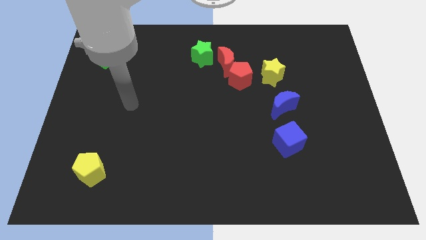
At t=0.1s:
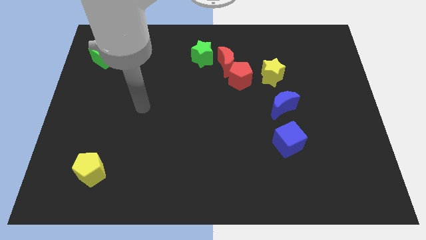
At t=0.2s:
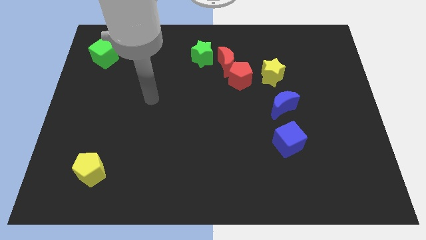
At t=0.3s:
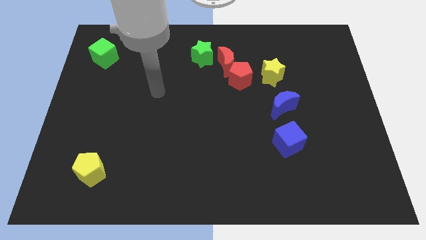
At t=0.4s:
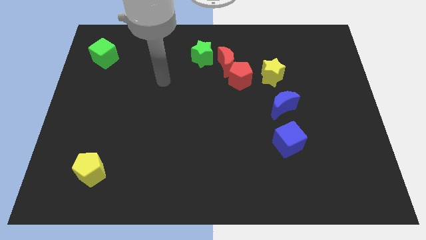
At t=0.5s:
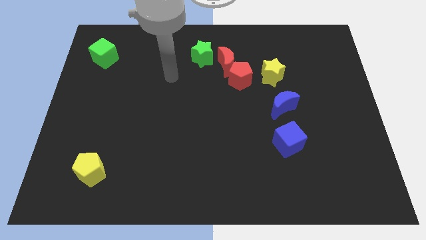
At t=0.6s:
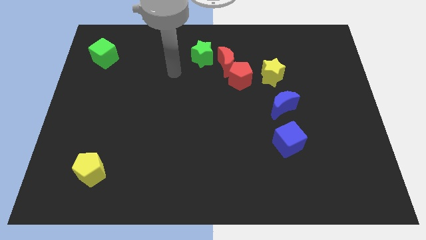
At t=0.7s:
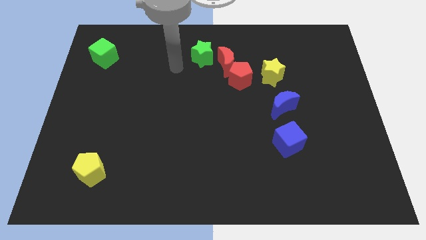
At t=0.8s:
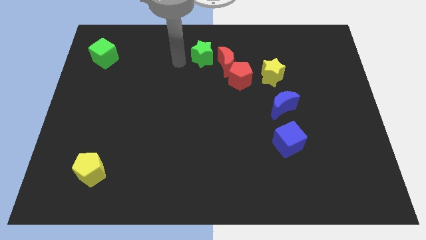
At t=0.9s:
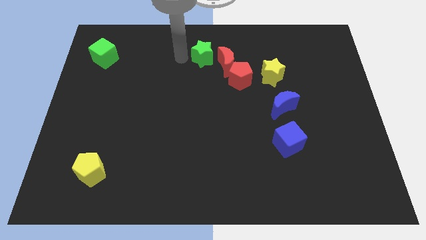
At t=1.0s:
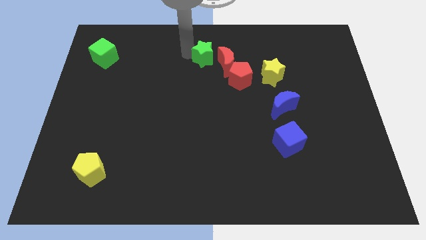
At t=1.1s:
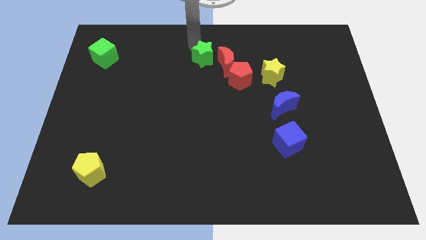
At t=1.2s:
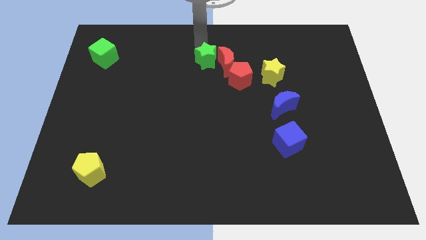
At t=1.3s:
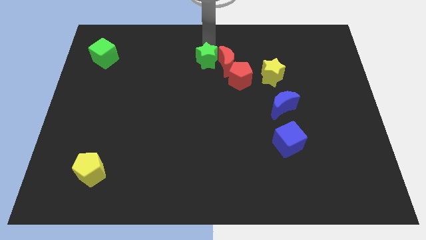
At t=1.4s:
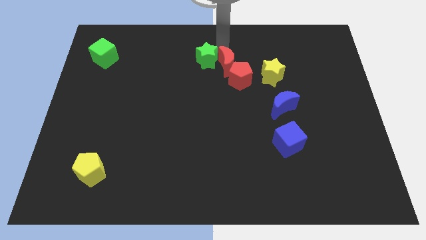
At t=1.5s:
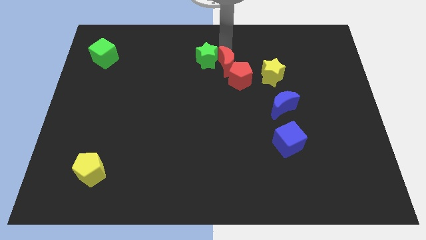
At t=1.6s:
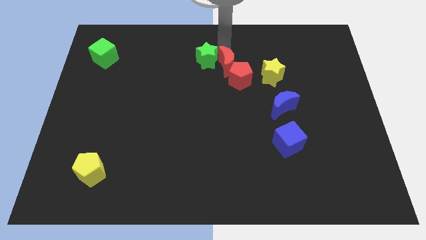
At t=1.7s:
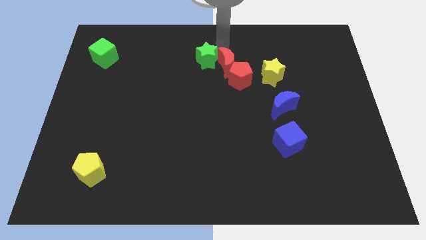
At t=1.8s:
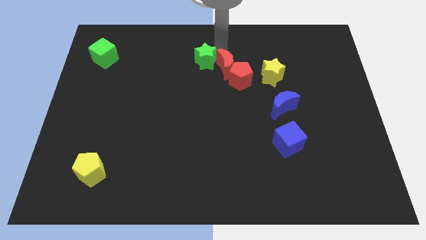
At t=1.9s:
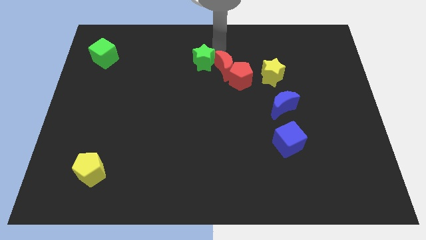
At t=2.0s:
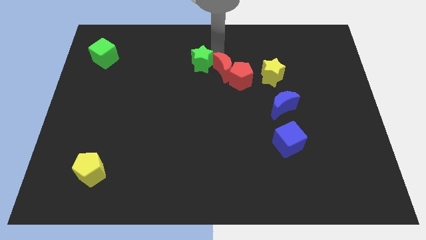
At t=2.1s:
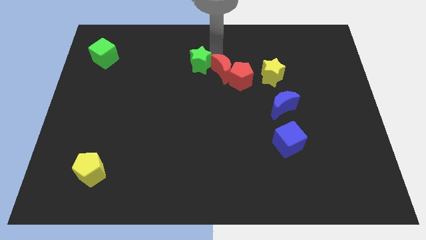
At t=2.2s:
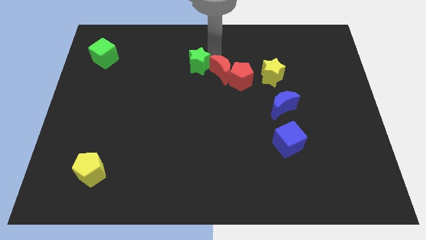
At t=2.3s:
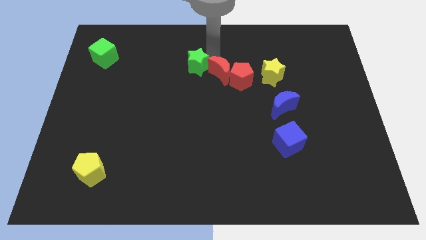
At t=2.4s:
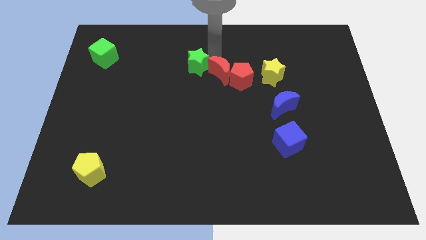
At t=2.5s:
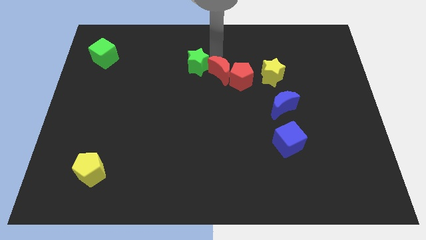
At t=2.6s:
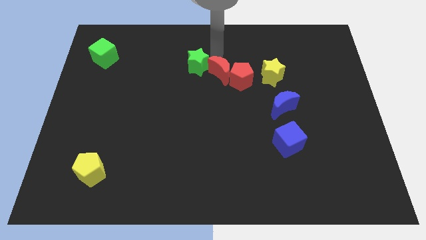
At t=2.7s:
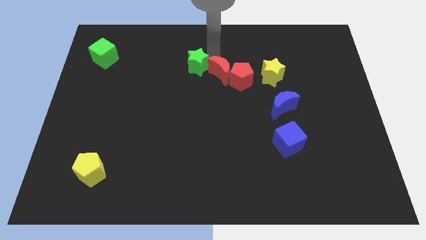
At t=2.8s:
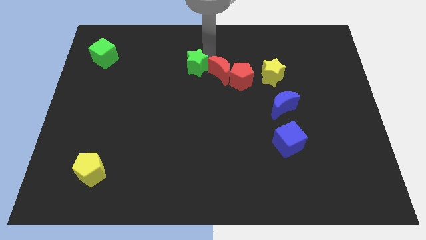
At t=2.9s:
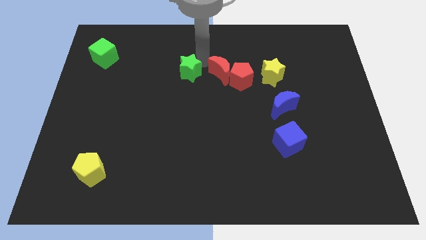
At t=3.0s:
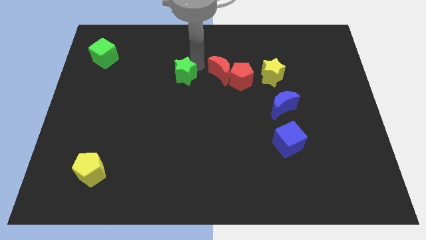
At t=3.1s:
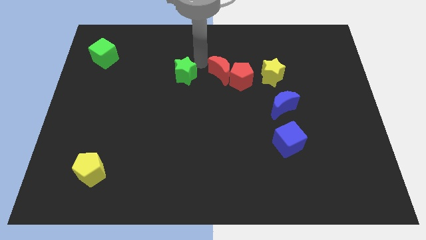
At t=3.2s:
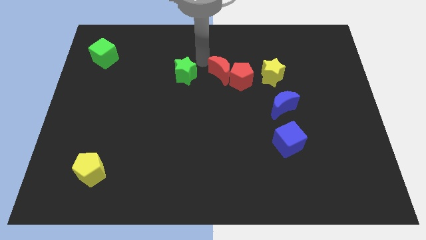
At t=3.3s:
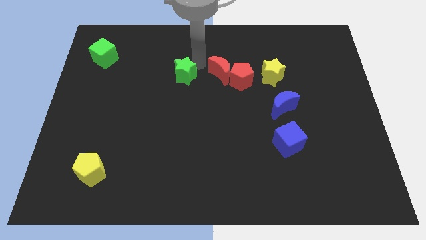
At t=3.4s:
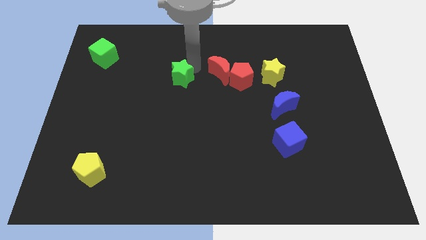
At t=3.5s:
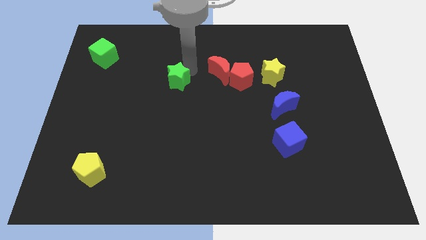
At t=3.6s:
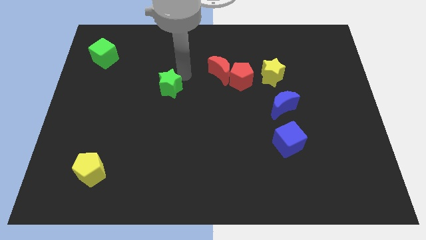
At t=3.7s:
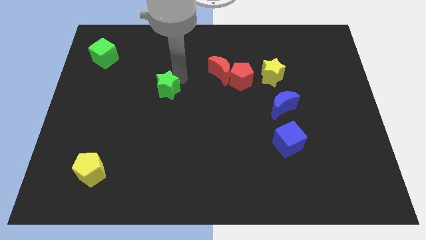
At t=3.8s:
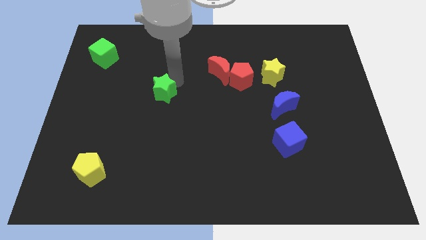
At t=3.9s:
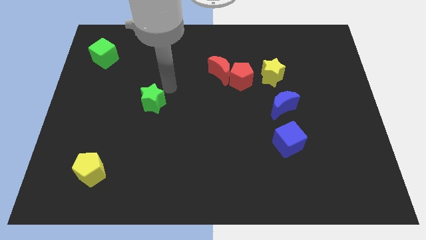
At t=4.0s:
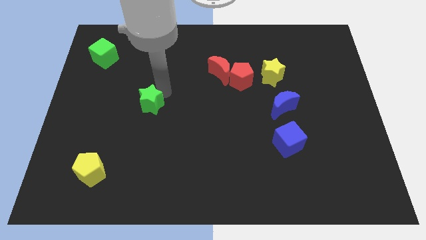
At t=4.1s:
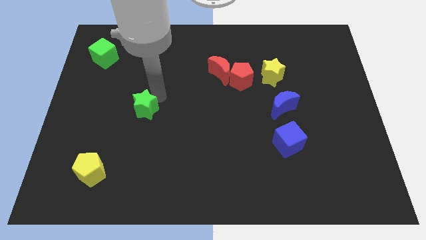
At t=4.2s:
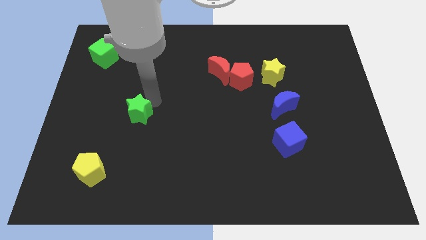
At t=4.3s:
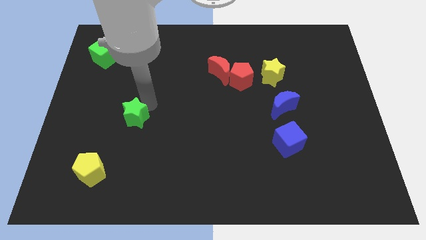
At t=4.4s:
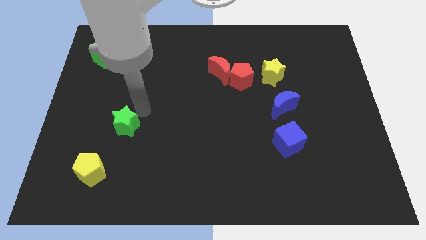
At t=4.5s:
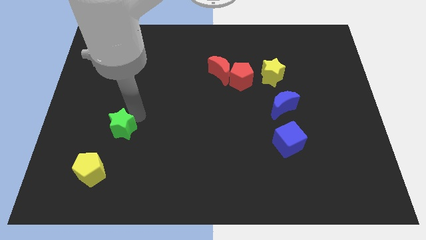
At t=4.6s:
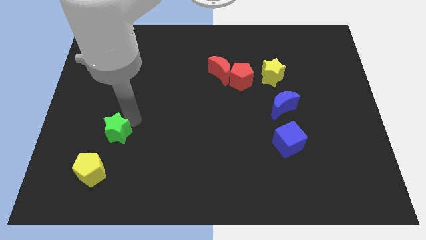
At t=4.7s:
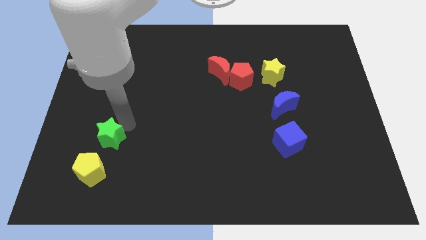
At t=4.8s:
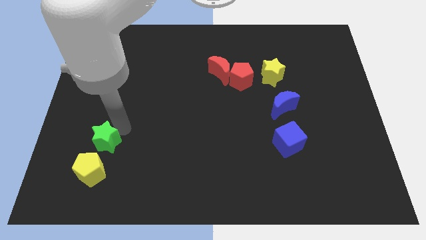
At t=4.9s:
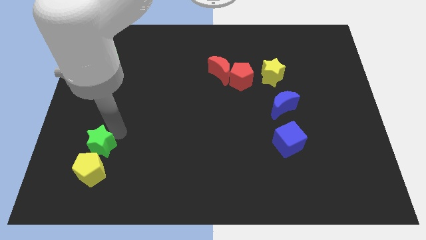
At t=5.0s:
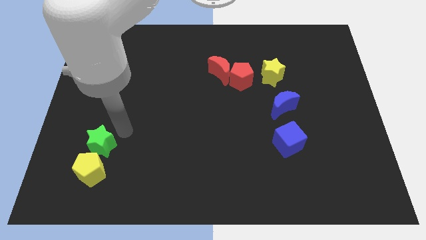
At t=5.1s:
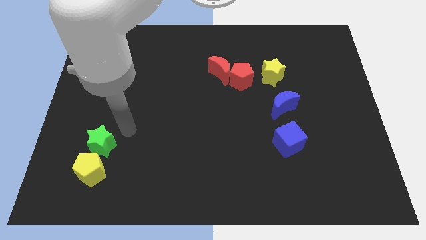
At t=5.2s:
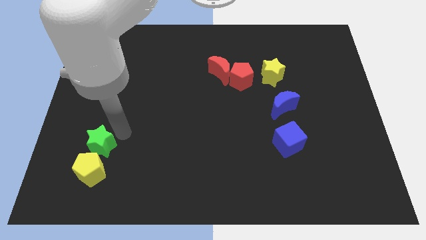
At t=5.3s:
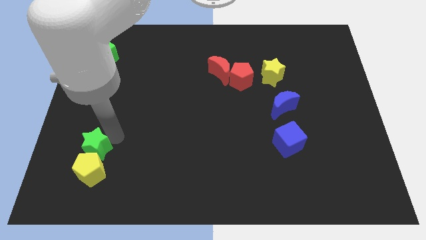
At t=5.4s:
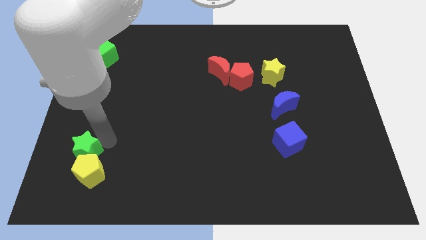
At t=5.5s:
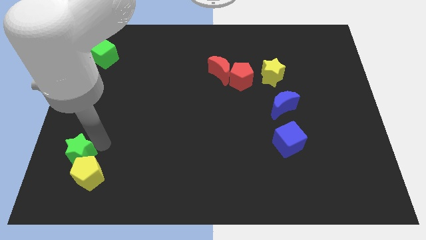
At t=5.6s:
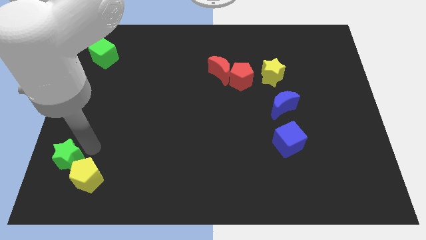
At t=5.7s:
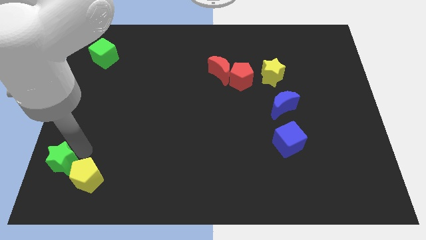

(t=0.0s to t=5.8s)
put the green star to the bottom left of the board
